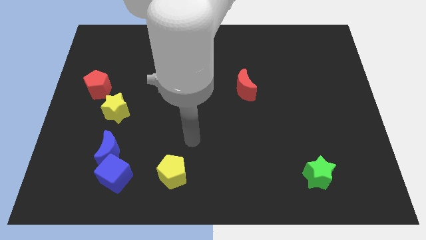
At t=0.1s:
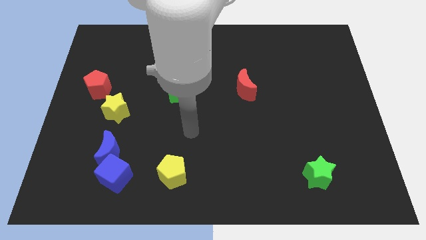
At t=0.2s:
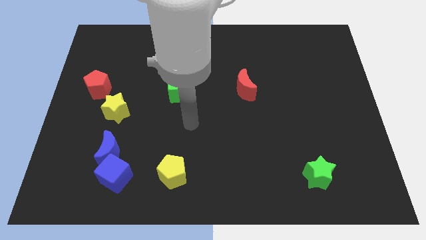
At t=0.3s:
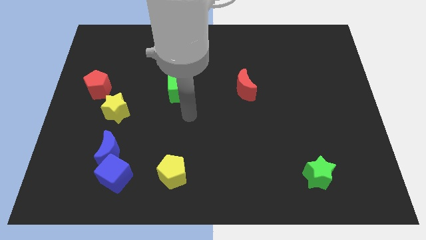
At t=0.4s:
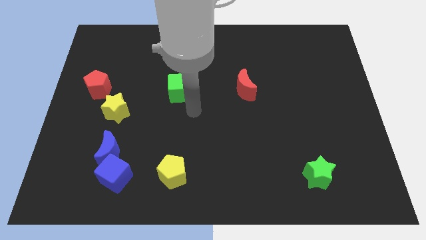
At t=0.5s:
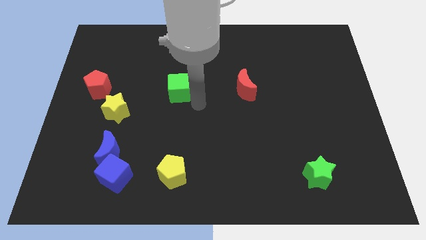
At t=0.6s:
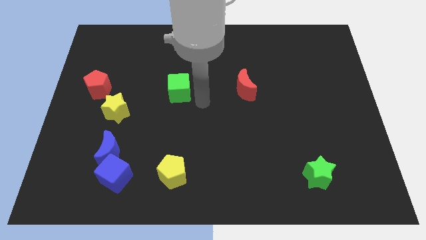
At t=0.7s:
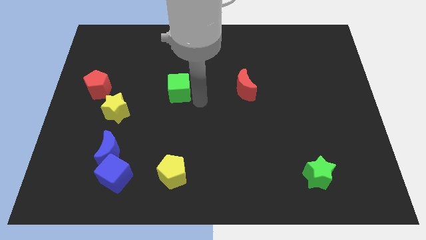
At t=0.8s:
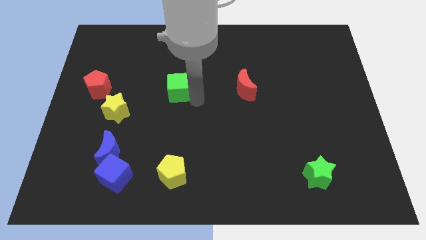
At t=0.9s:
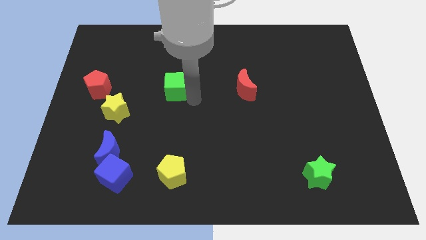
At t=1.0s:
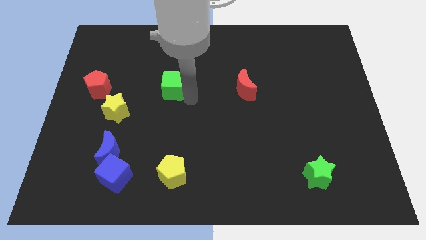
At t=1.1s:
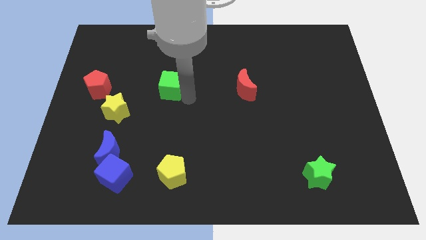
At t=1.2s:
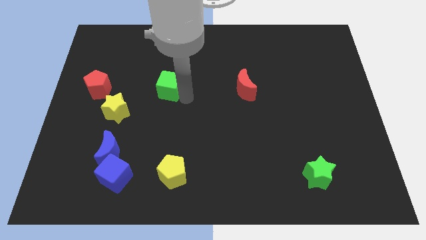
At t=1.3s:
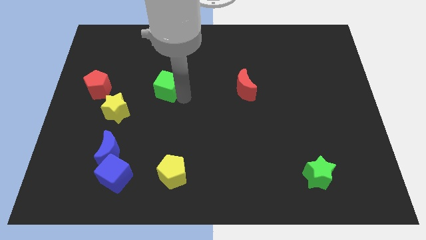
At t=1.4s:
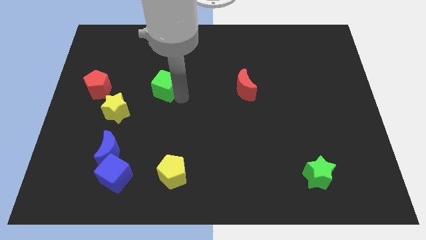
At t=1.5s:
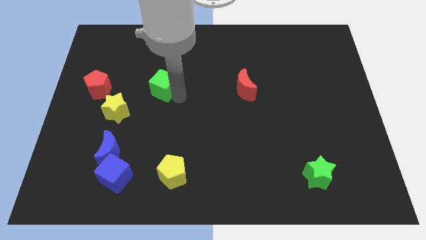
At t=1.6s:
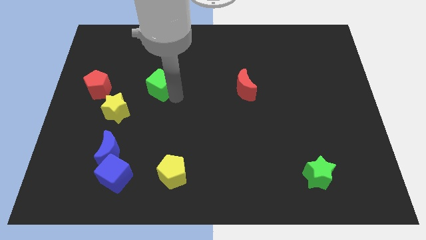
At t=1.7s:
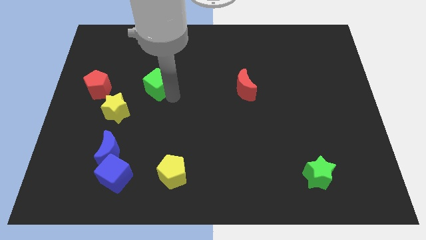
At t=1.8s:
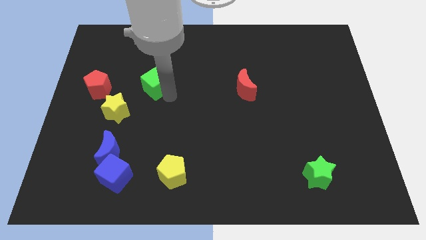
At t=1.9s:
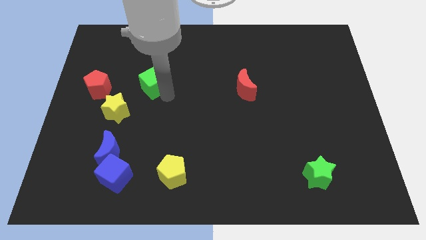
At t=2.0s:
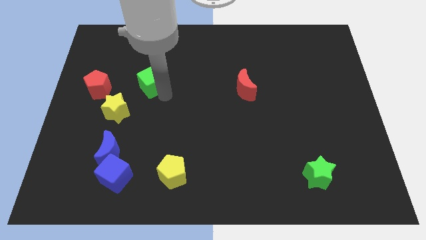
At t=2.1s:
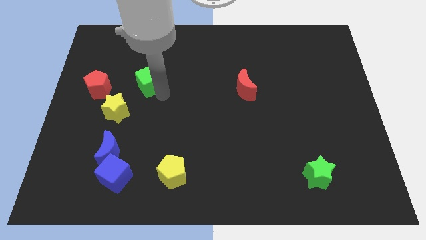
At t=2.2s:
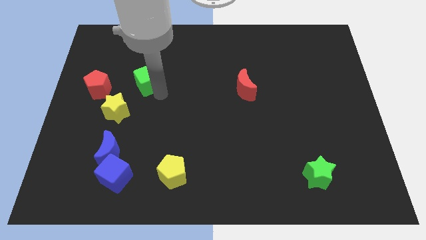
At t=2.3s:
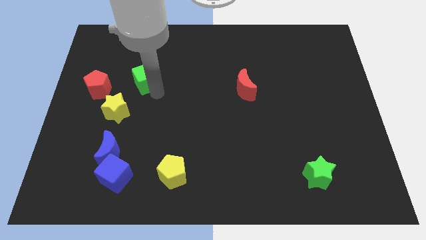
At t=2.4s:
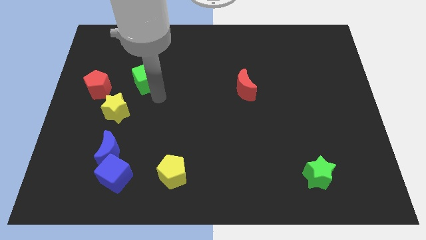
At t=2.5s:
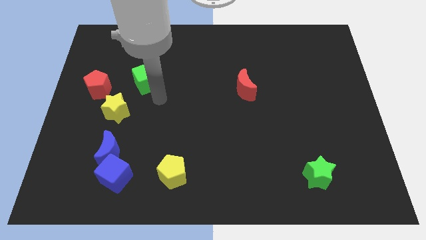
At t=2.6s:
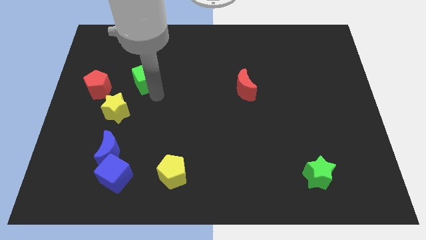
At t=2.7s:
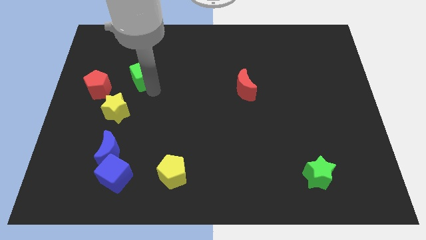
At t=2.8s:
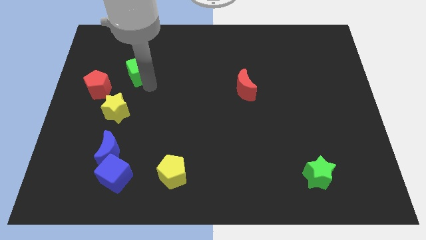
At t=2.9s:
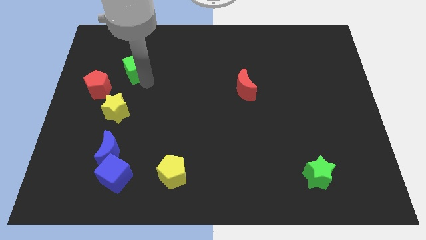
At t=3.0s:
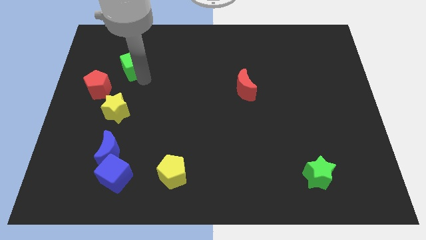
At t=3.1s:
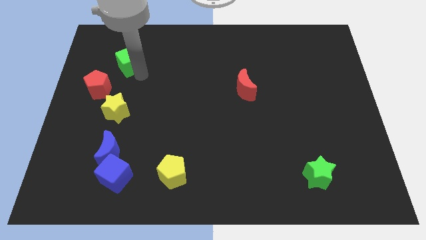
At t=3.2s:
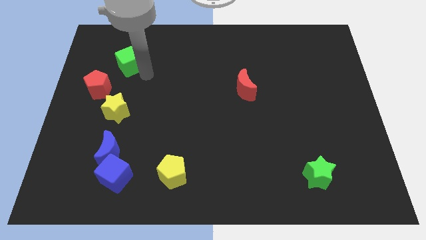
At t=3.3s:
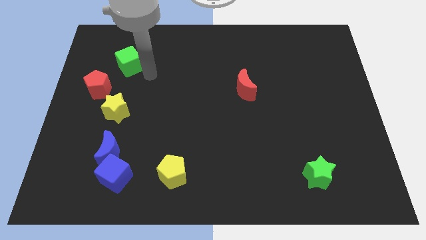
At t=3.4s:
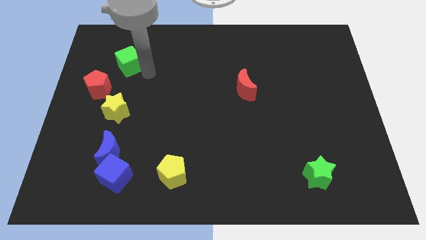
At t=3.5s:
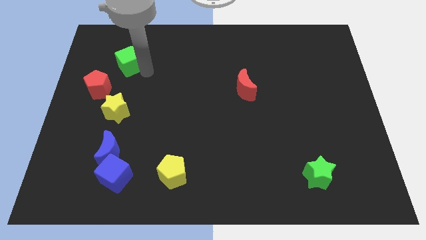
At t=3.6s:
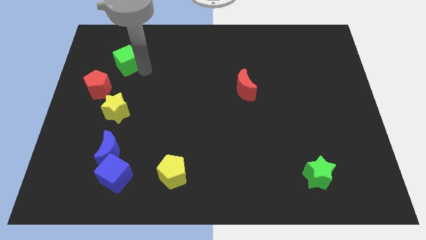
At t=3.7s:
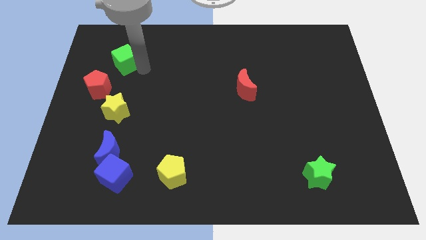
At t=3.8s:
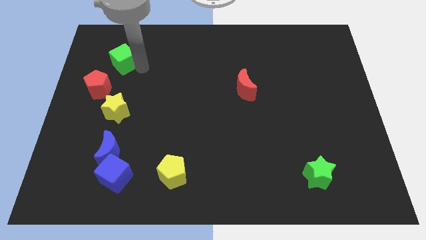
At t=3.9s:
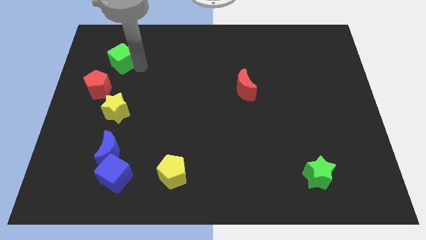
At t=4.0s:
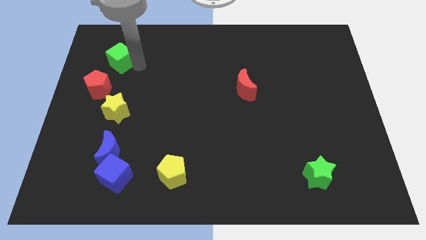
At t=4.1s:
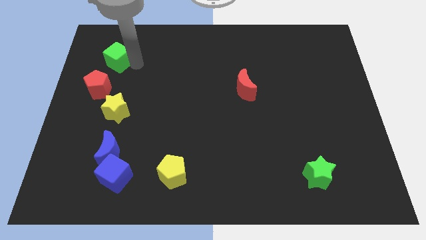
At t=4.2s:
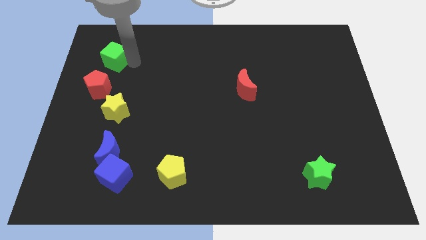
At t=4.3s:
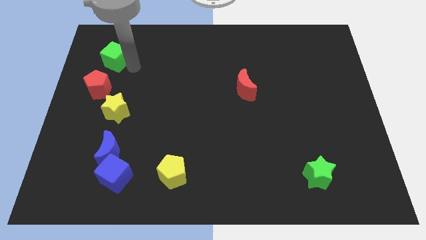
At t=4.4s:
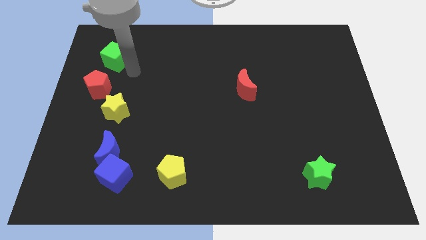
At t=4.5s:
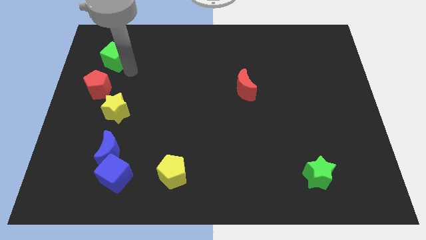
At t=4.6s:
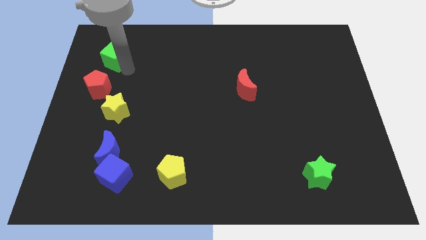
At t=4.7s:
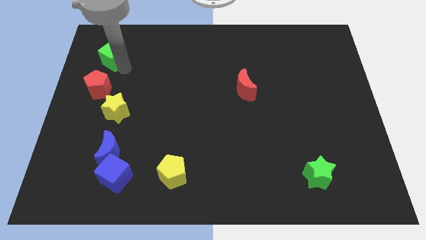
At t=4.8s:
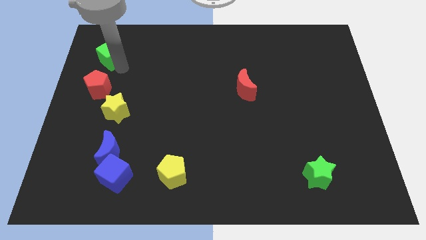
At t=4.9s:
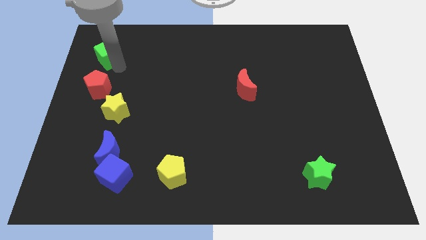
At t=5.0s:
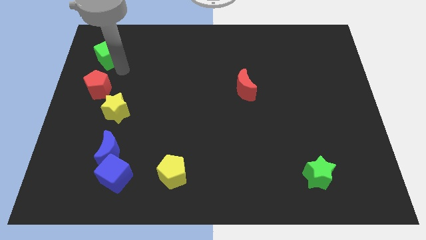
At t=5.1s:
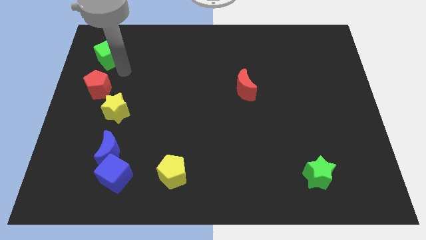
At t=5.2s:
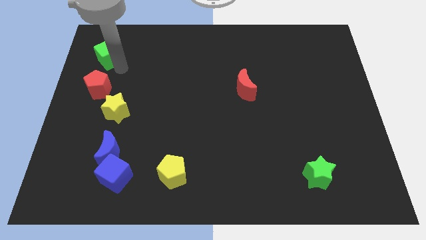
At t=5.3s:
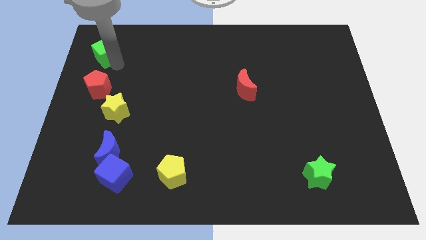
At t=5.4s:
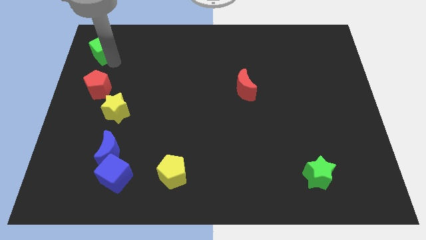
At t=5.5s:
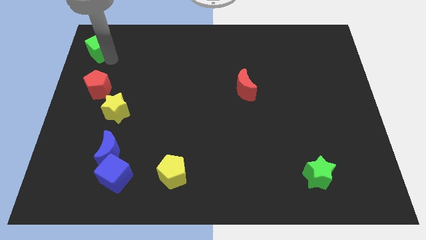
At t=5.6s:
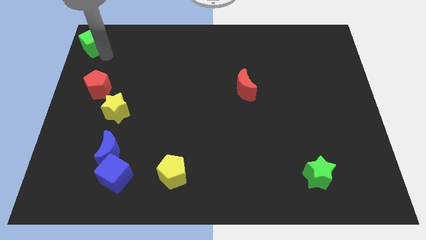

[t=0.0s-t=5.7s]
put the green cube to the top left of the board

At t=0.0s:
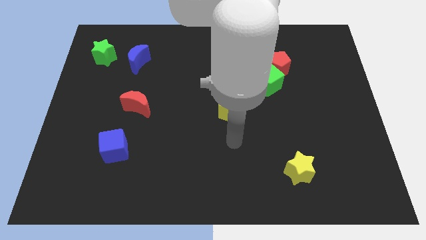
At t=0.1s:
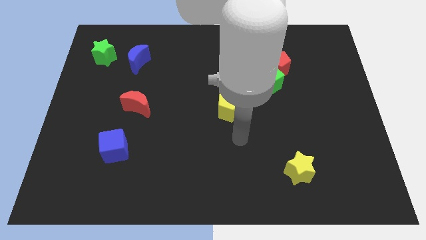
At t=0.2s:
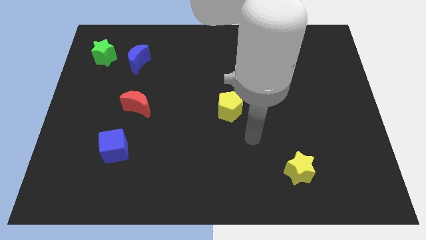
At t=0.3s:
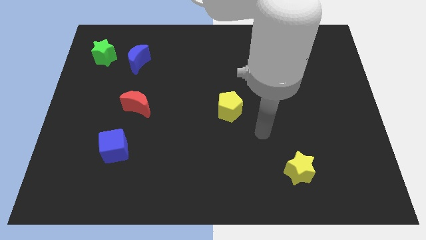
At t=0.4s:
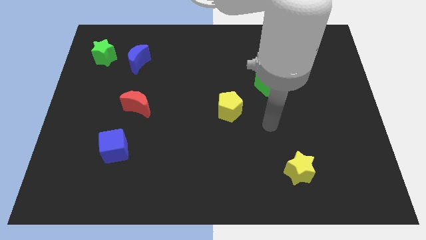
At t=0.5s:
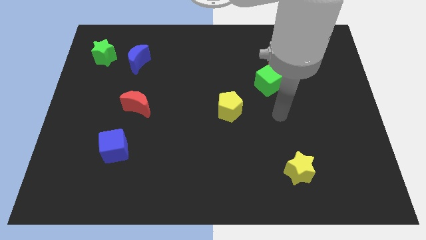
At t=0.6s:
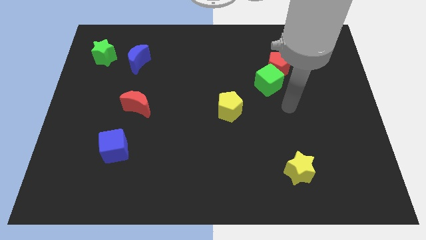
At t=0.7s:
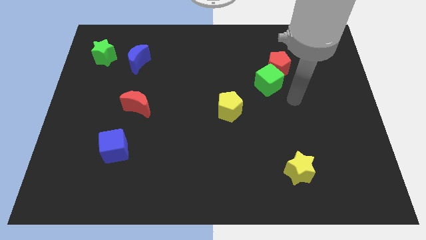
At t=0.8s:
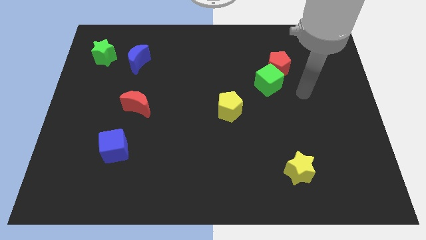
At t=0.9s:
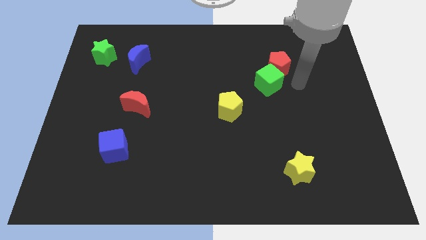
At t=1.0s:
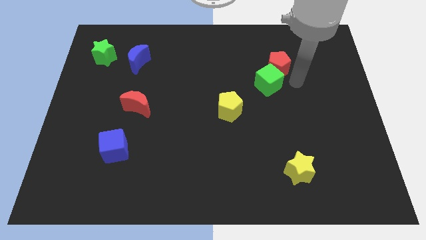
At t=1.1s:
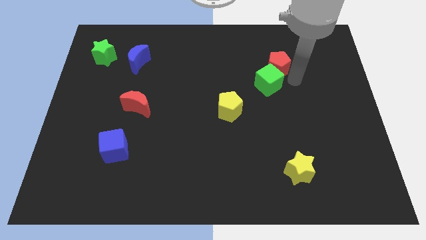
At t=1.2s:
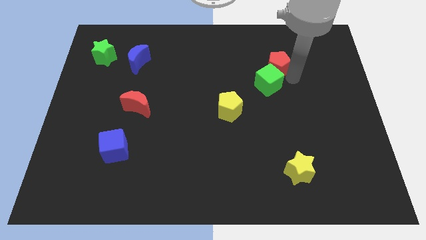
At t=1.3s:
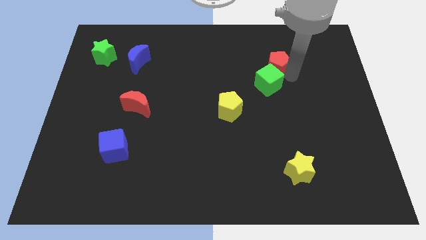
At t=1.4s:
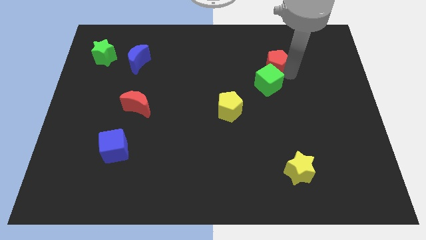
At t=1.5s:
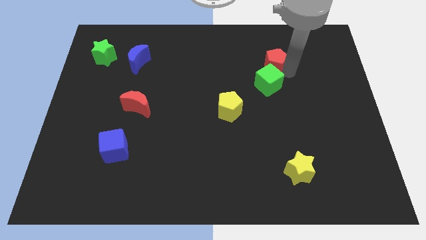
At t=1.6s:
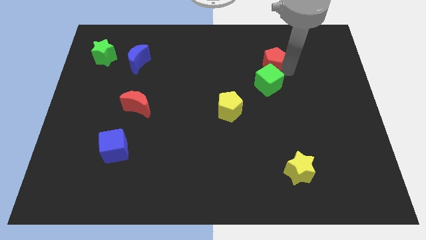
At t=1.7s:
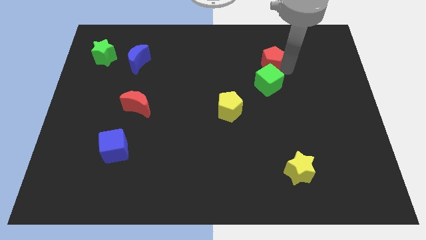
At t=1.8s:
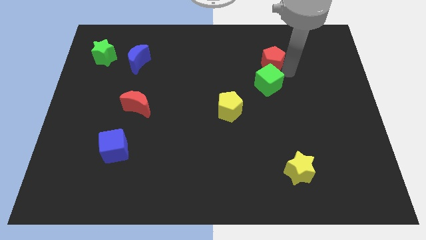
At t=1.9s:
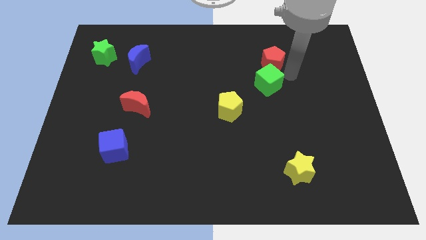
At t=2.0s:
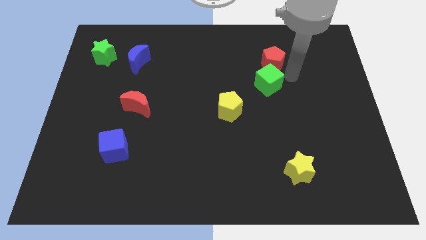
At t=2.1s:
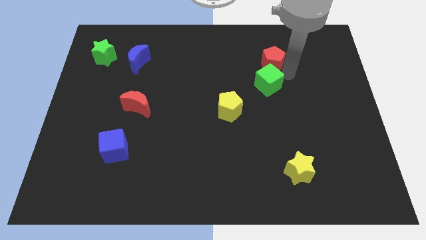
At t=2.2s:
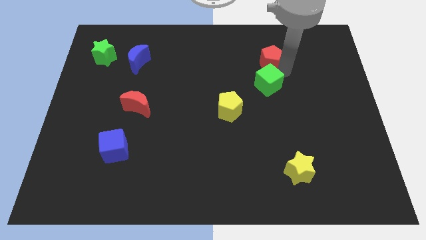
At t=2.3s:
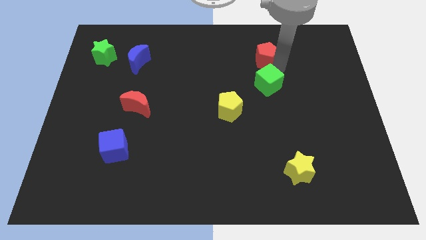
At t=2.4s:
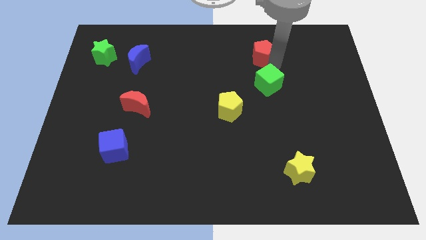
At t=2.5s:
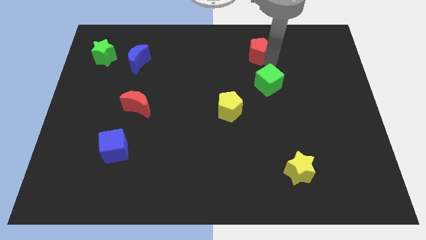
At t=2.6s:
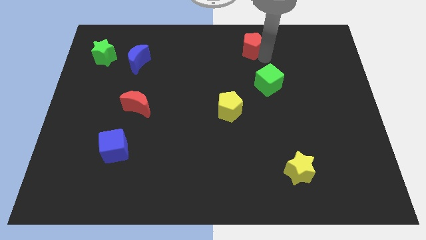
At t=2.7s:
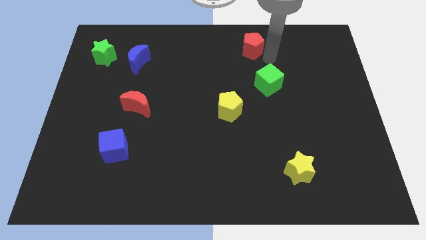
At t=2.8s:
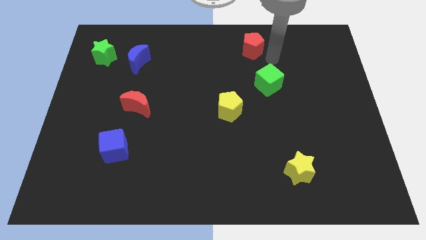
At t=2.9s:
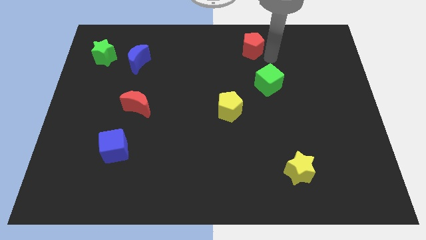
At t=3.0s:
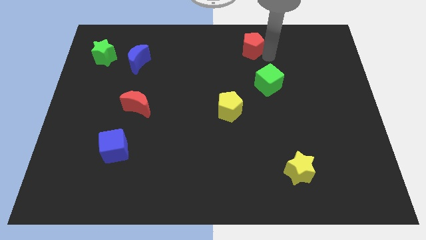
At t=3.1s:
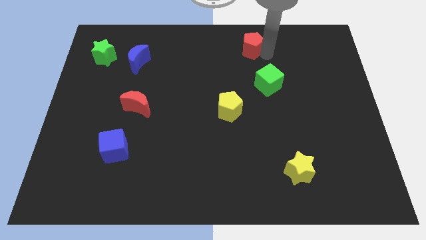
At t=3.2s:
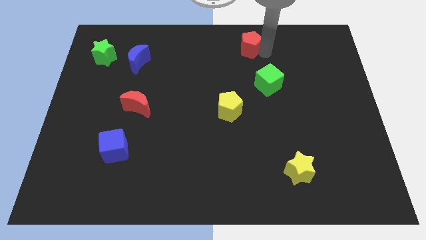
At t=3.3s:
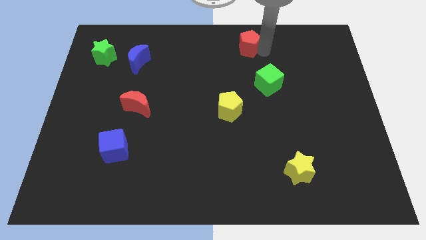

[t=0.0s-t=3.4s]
push the red pentagon to the top
